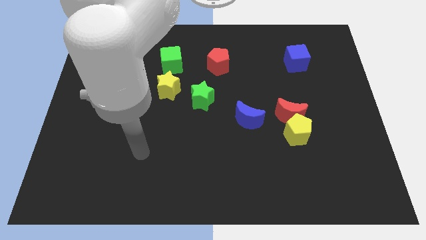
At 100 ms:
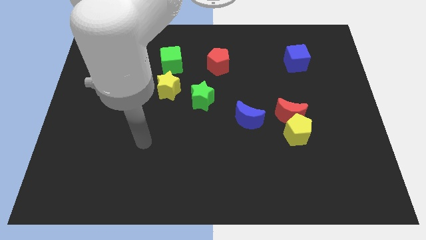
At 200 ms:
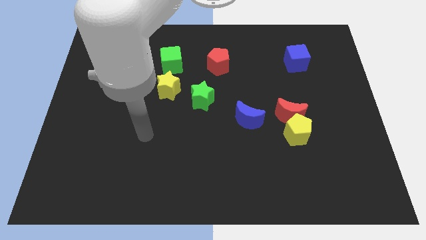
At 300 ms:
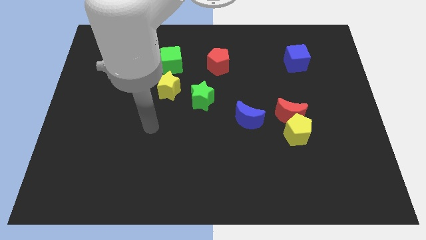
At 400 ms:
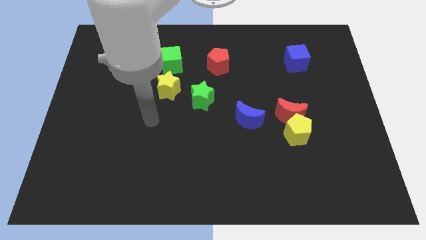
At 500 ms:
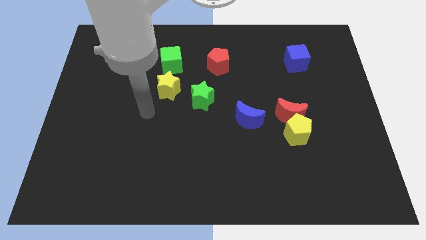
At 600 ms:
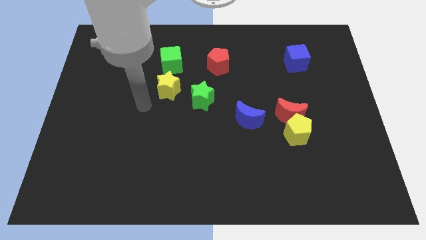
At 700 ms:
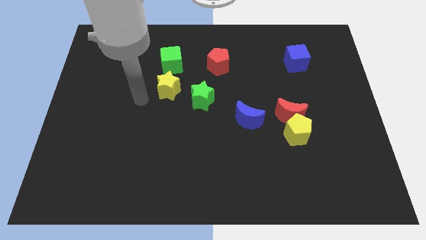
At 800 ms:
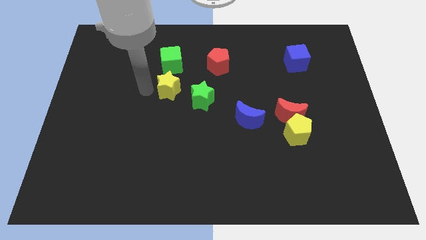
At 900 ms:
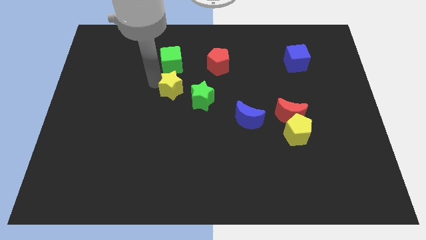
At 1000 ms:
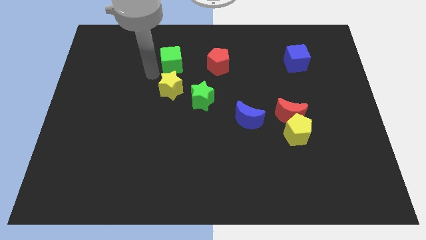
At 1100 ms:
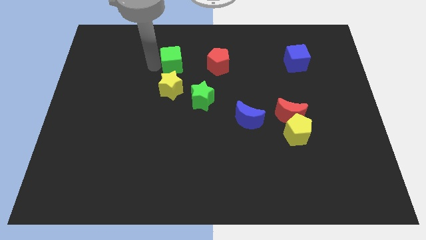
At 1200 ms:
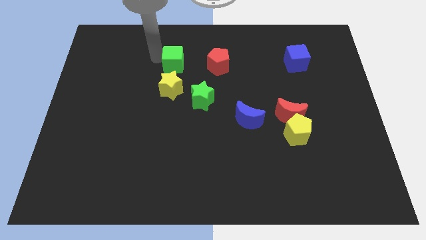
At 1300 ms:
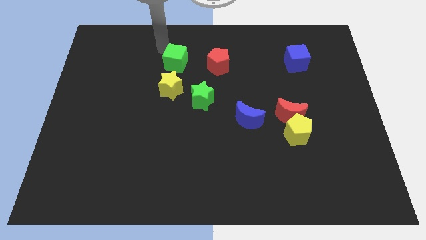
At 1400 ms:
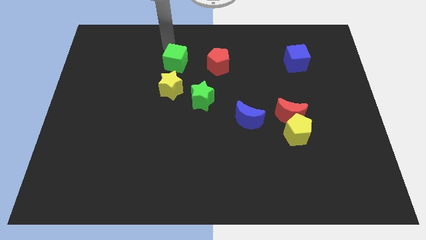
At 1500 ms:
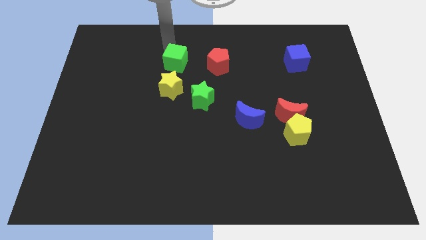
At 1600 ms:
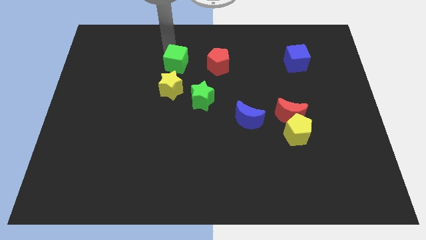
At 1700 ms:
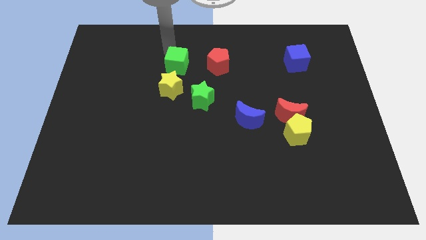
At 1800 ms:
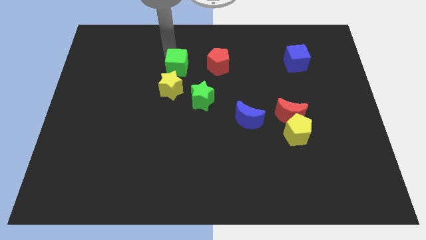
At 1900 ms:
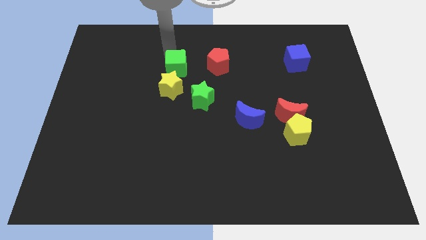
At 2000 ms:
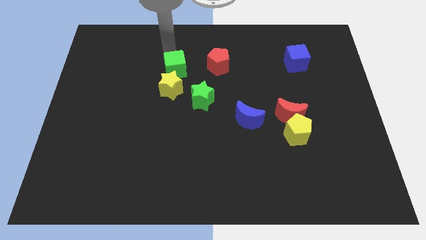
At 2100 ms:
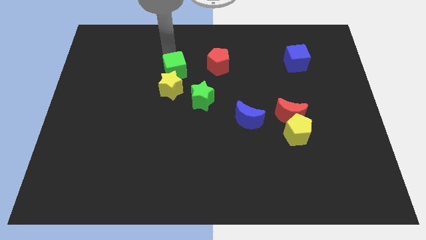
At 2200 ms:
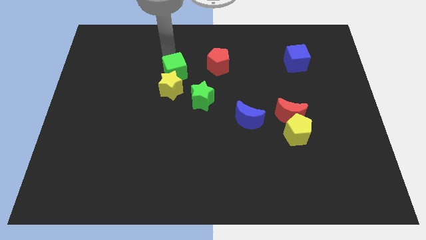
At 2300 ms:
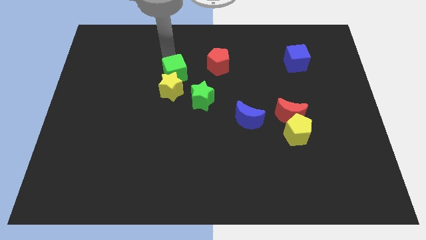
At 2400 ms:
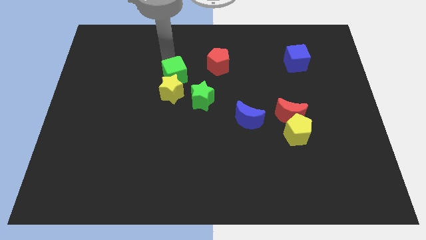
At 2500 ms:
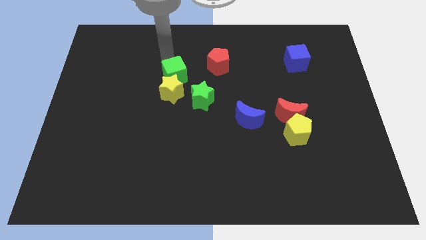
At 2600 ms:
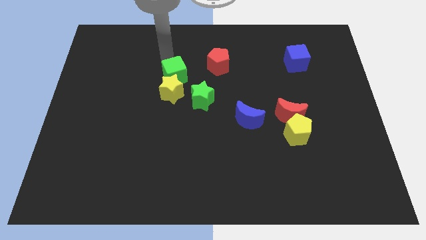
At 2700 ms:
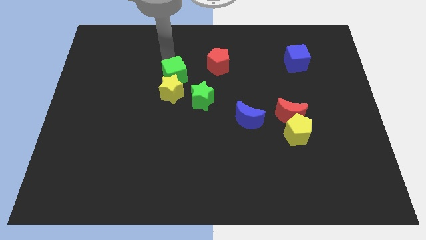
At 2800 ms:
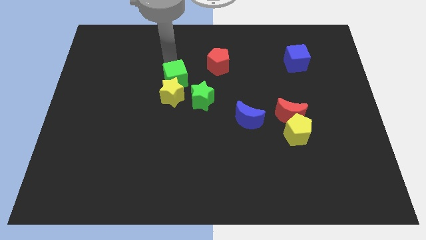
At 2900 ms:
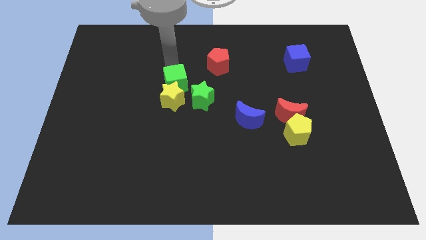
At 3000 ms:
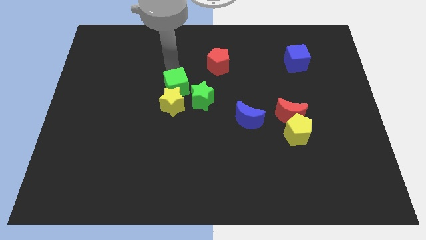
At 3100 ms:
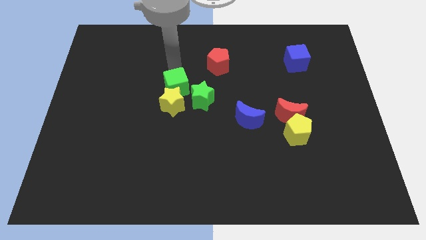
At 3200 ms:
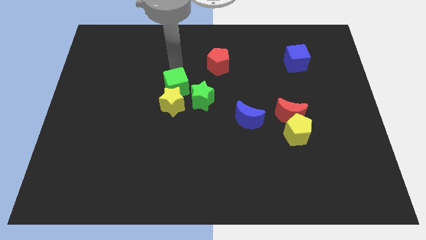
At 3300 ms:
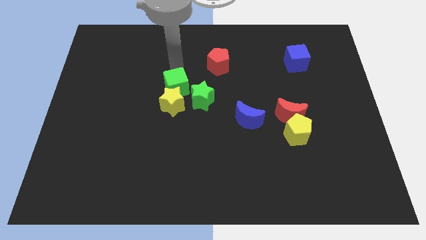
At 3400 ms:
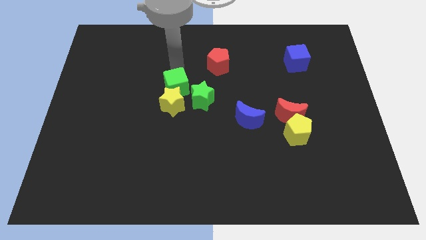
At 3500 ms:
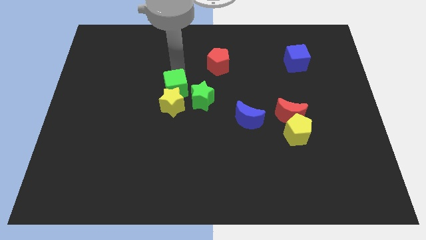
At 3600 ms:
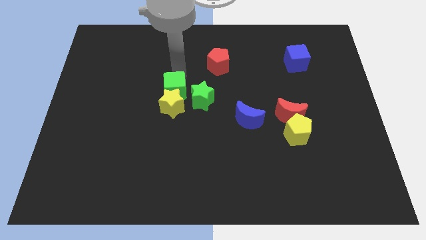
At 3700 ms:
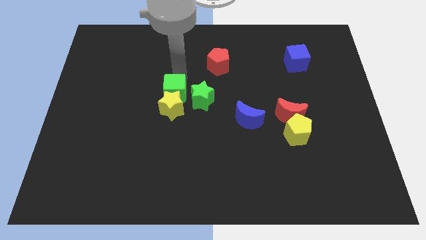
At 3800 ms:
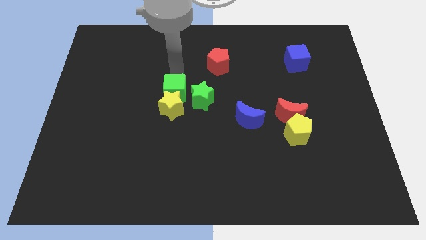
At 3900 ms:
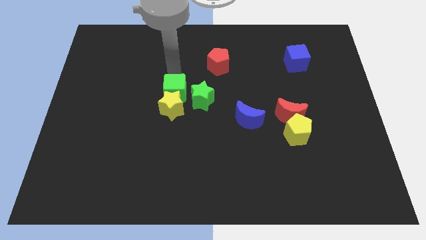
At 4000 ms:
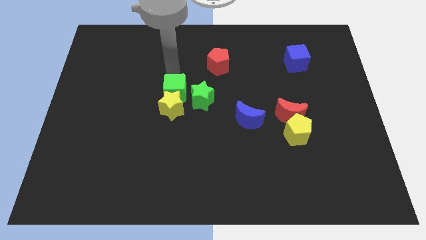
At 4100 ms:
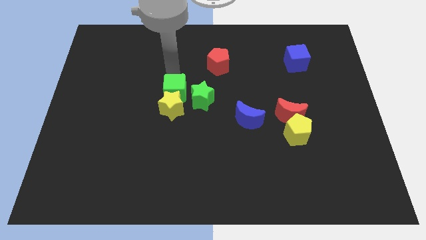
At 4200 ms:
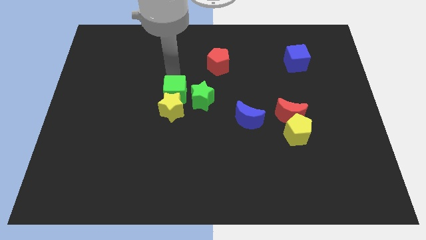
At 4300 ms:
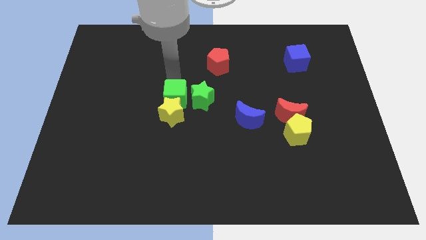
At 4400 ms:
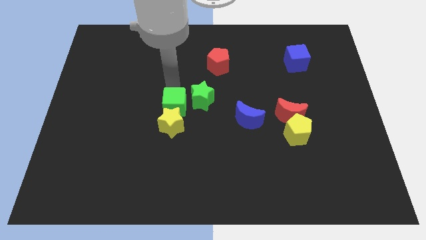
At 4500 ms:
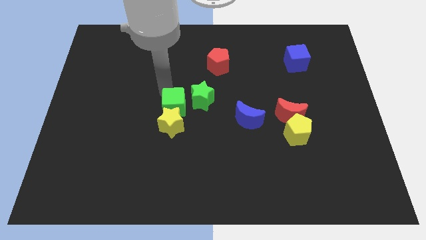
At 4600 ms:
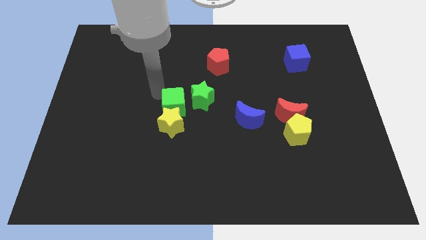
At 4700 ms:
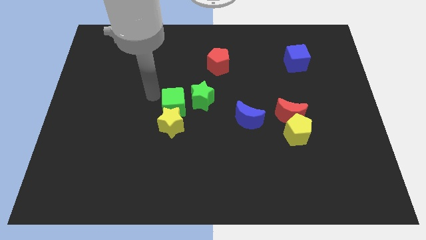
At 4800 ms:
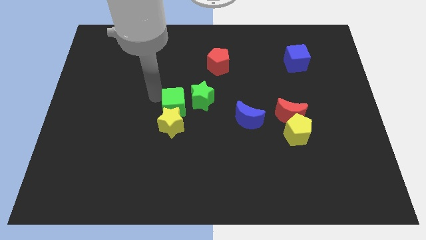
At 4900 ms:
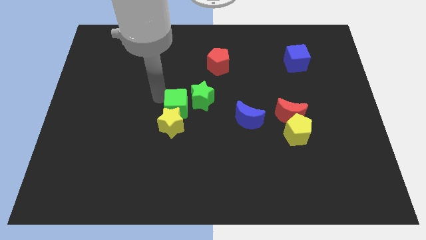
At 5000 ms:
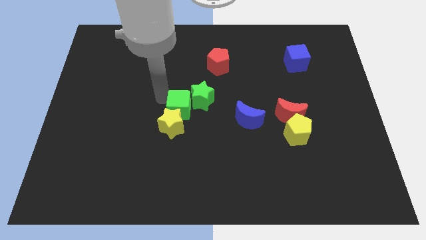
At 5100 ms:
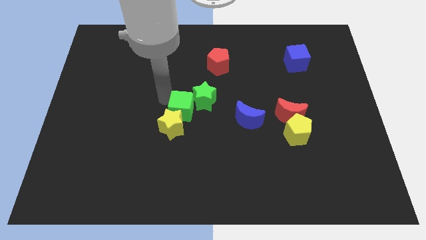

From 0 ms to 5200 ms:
put the green cube left of the blue moon

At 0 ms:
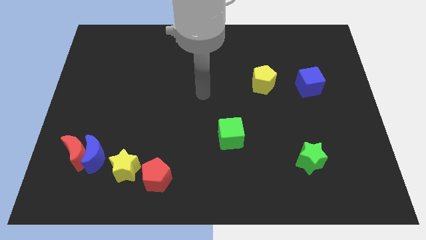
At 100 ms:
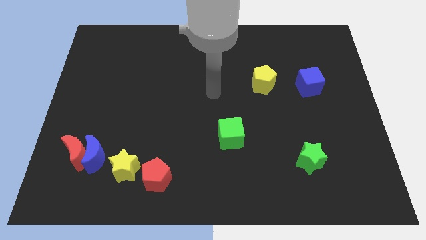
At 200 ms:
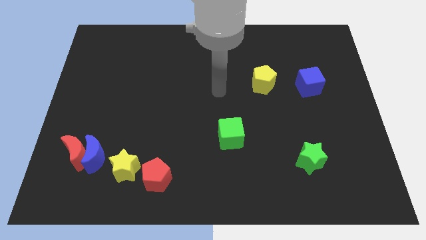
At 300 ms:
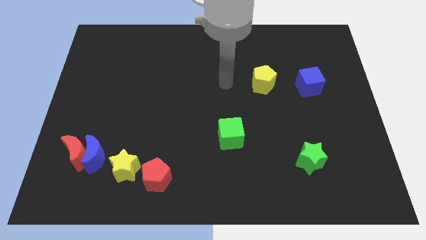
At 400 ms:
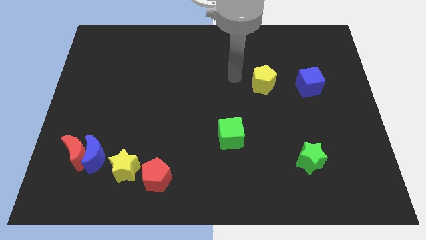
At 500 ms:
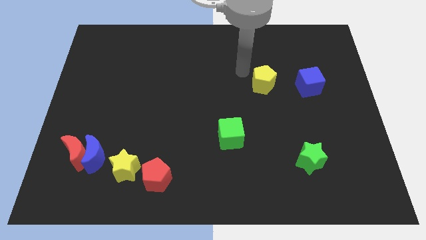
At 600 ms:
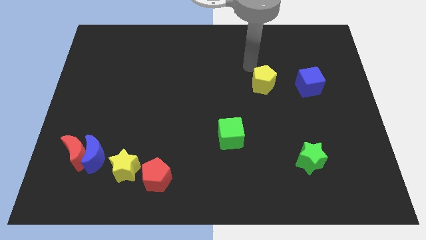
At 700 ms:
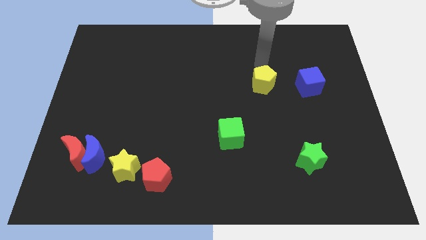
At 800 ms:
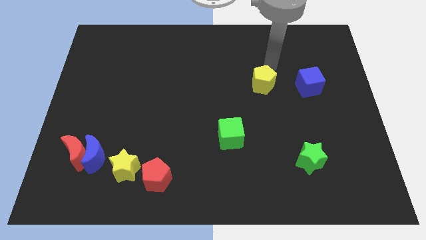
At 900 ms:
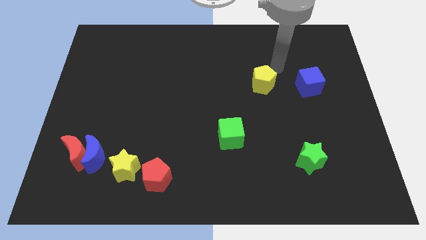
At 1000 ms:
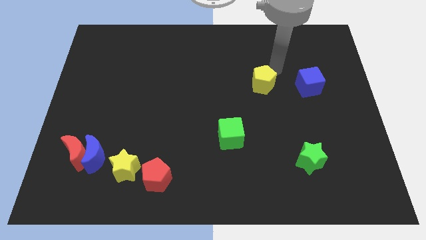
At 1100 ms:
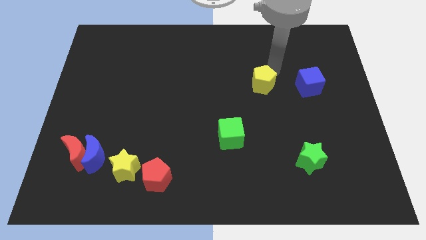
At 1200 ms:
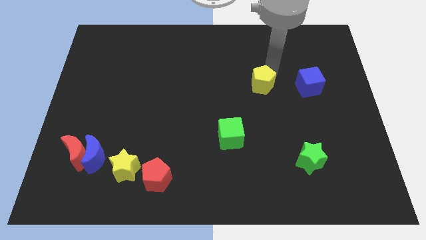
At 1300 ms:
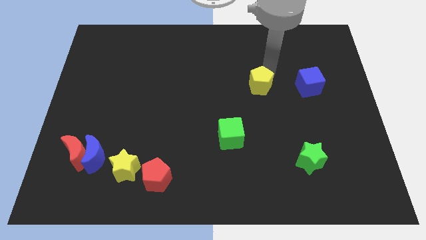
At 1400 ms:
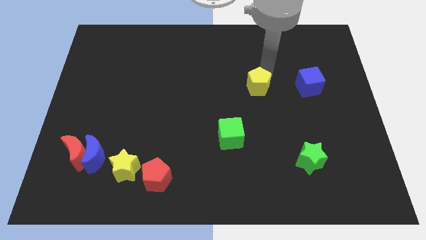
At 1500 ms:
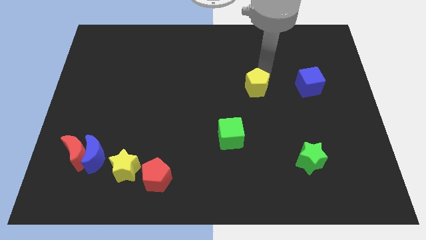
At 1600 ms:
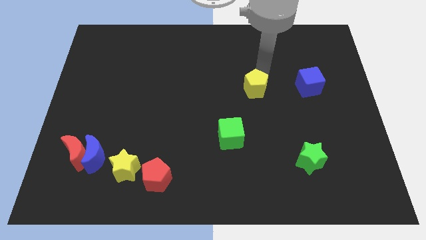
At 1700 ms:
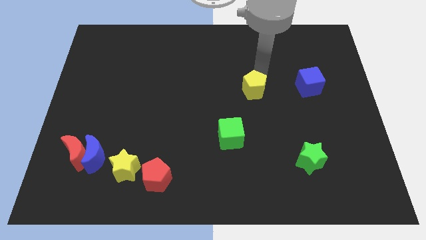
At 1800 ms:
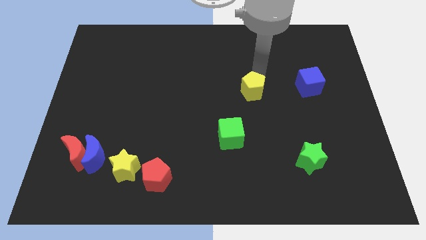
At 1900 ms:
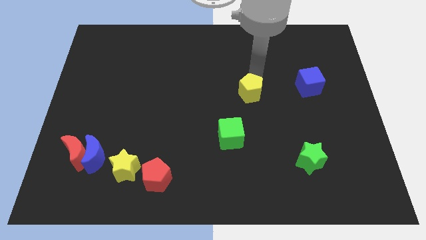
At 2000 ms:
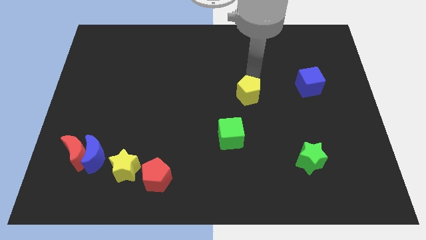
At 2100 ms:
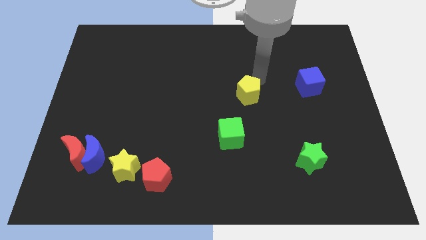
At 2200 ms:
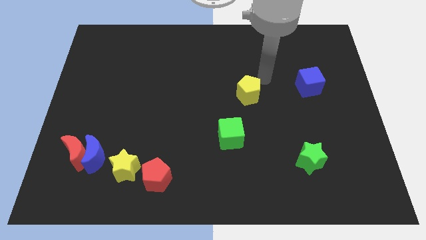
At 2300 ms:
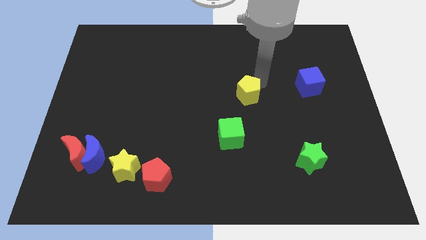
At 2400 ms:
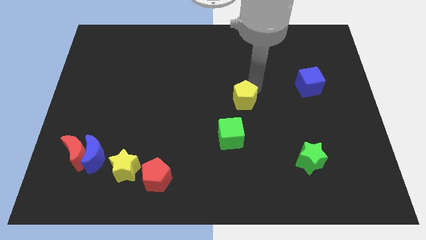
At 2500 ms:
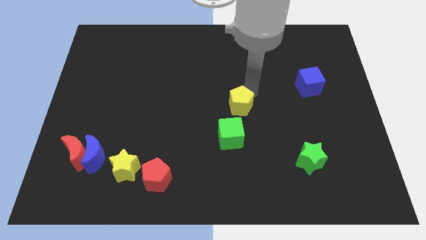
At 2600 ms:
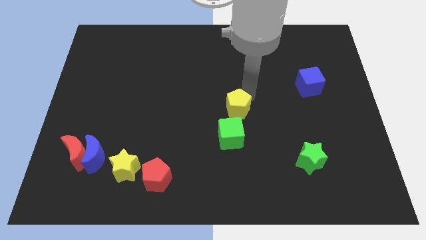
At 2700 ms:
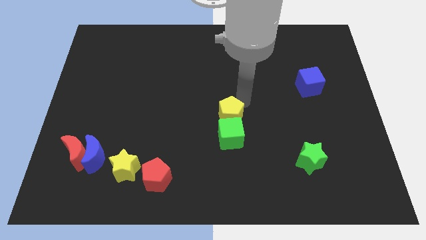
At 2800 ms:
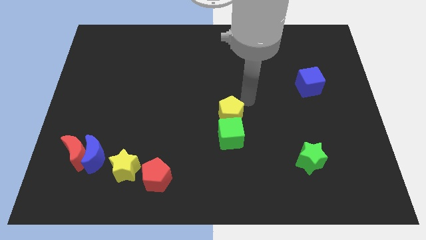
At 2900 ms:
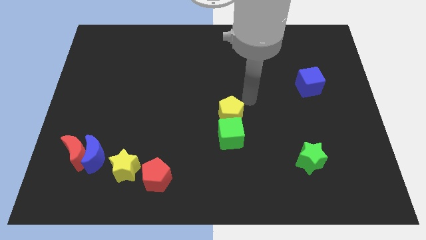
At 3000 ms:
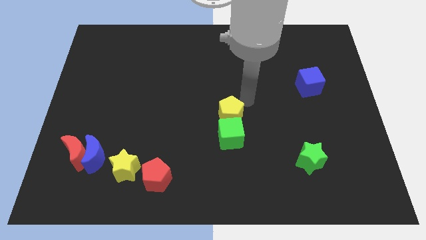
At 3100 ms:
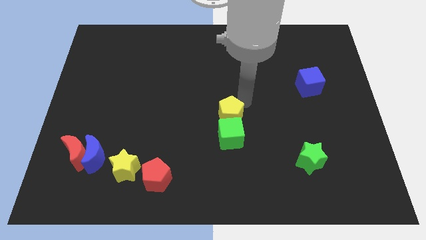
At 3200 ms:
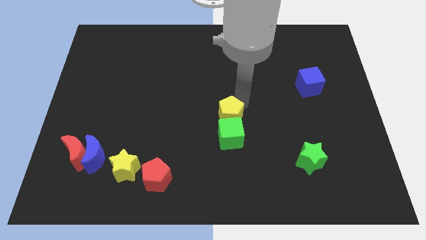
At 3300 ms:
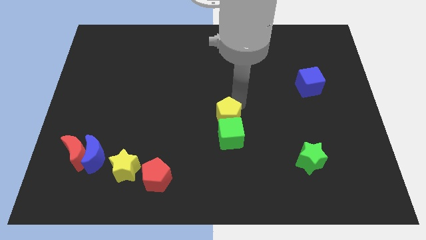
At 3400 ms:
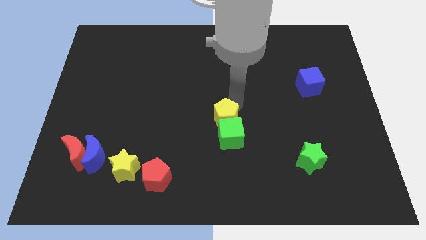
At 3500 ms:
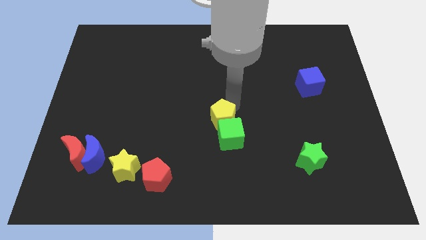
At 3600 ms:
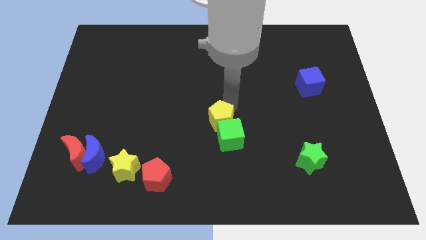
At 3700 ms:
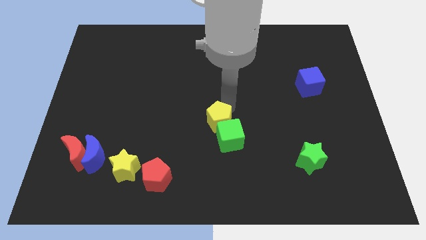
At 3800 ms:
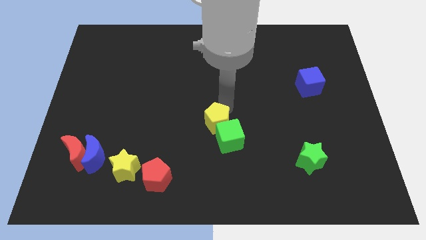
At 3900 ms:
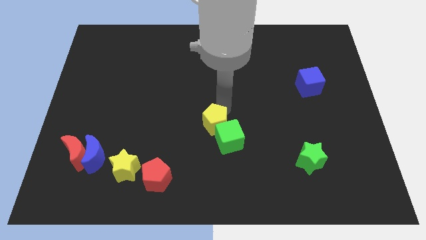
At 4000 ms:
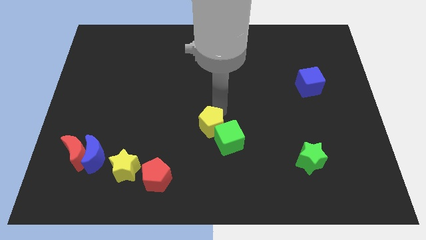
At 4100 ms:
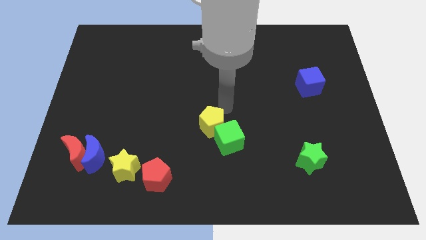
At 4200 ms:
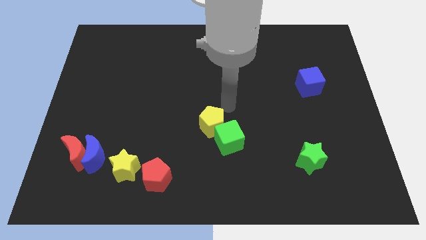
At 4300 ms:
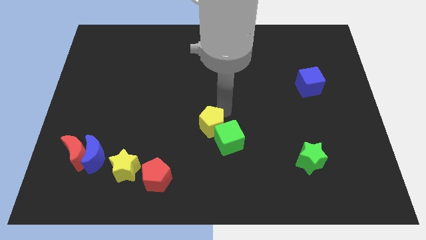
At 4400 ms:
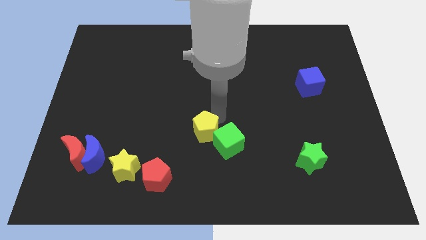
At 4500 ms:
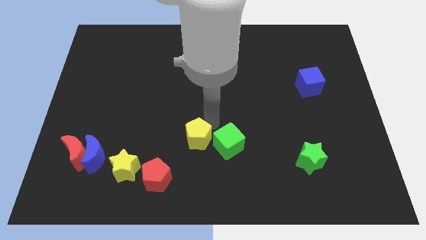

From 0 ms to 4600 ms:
put the yellow pentagon to the top right of the red pentagon
